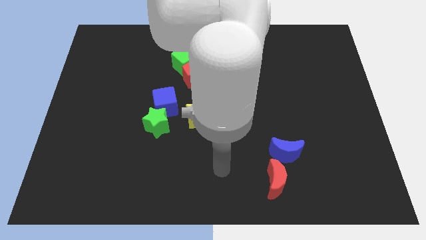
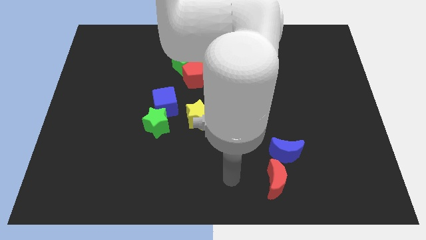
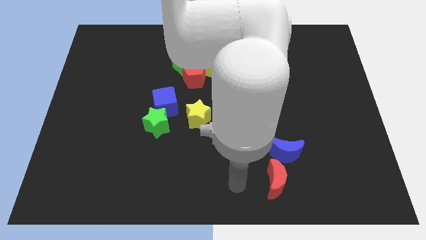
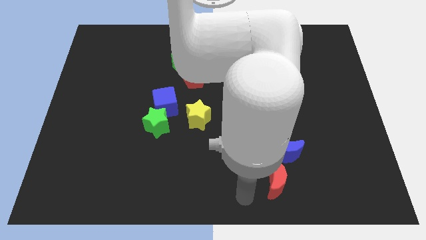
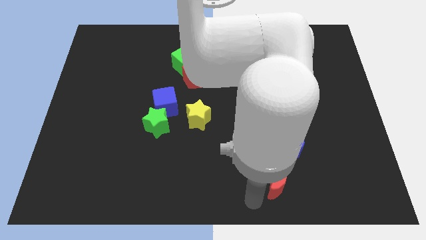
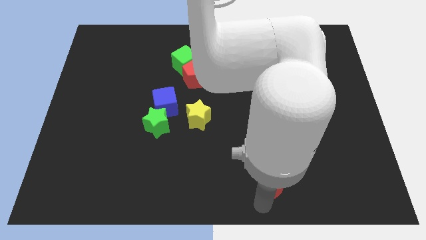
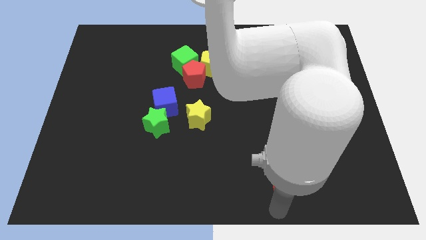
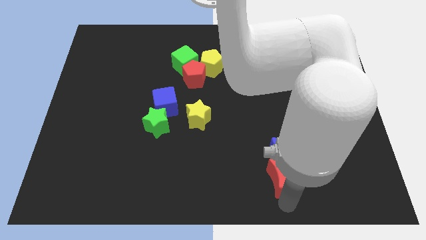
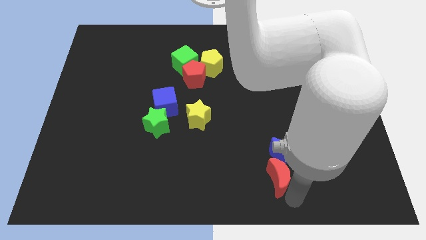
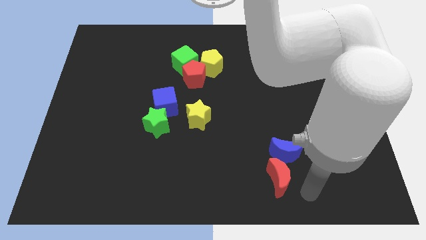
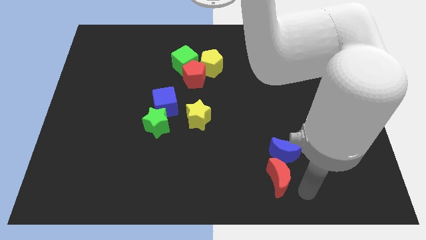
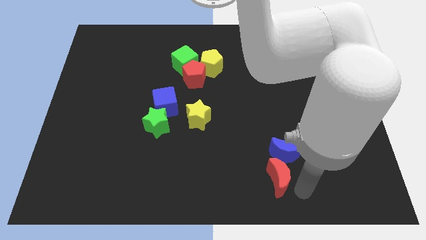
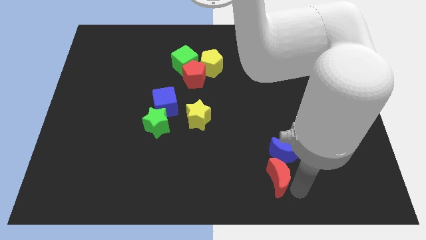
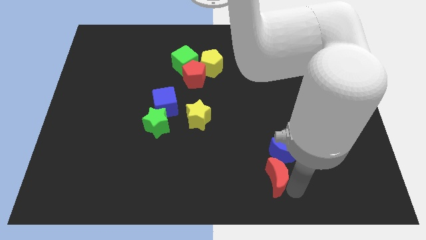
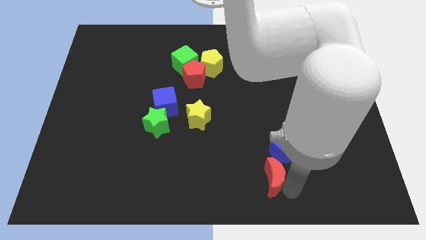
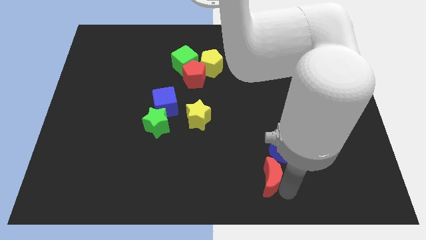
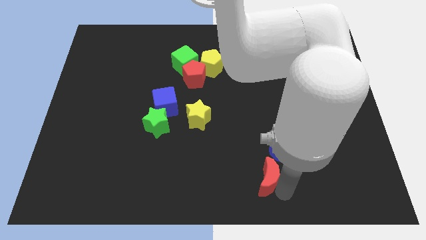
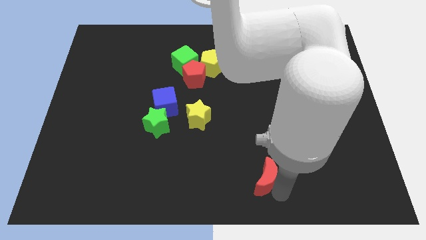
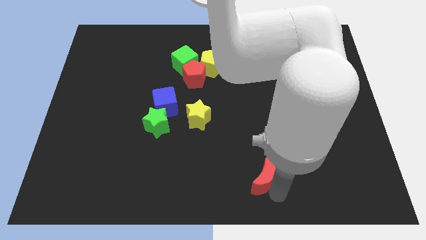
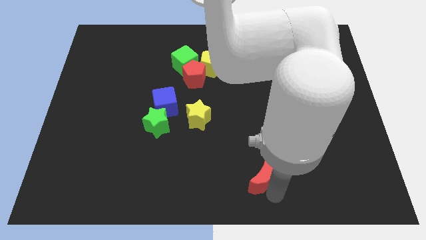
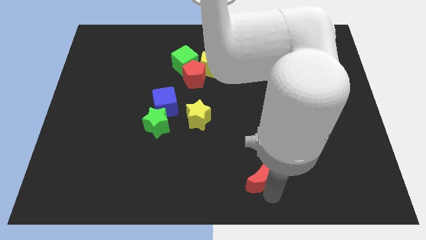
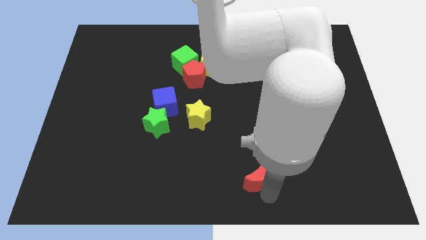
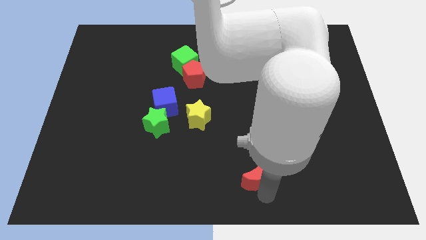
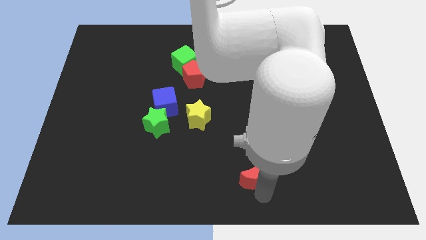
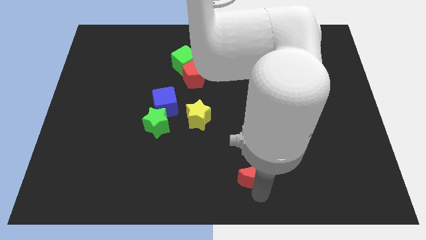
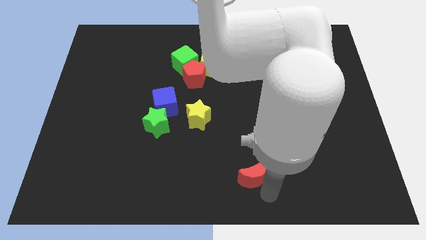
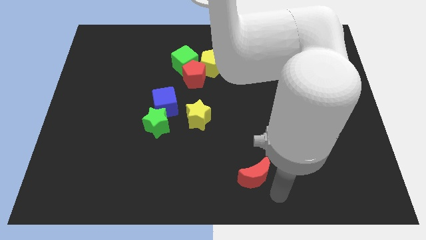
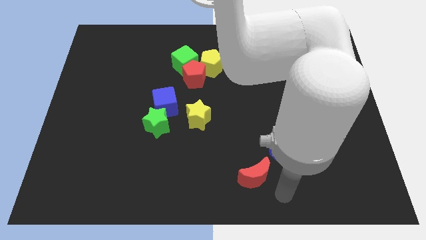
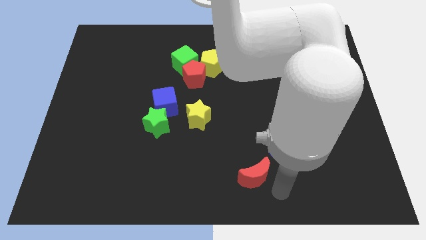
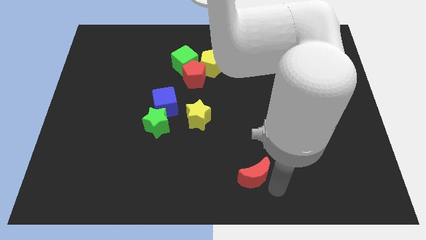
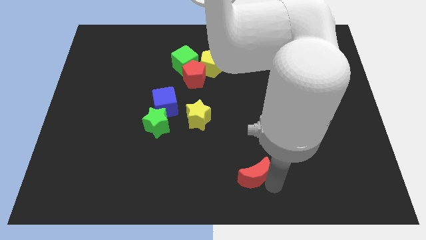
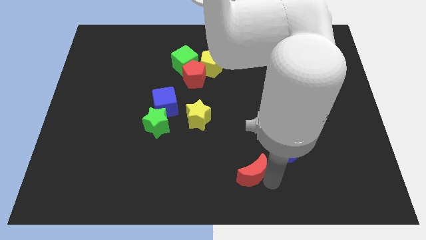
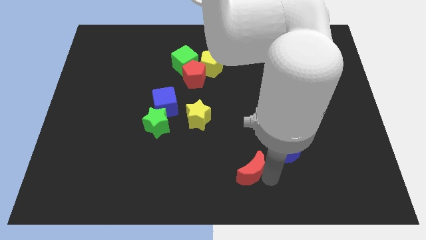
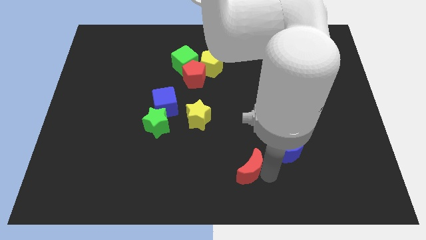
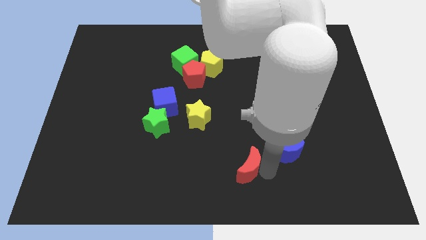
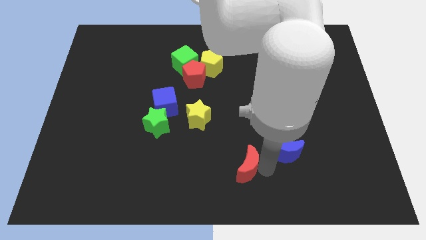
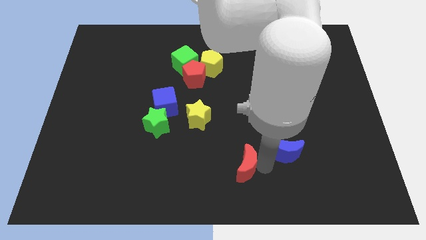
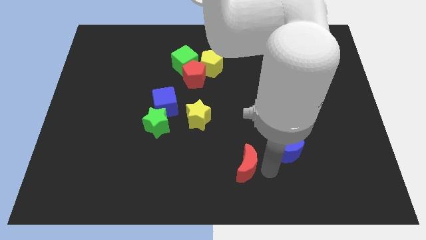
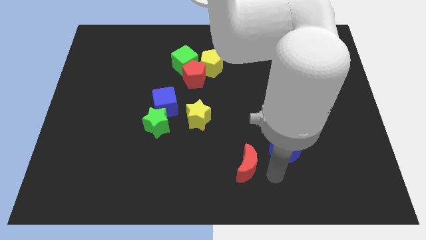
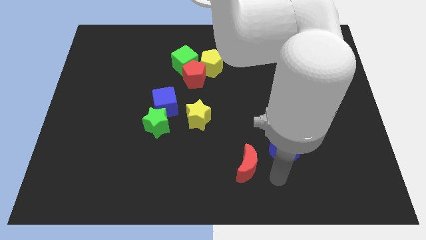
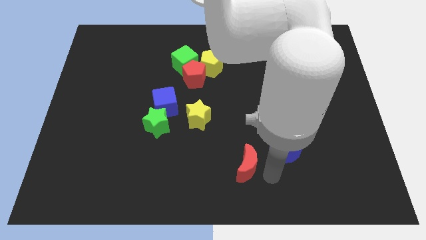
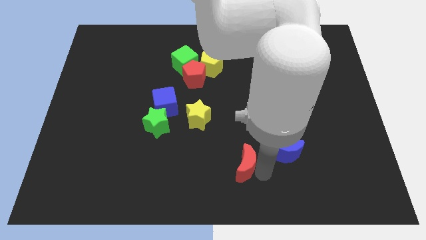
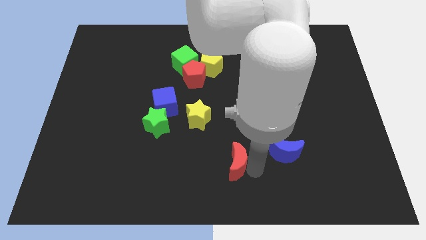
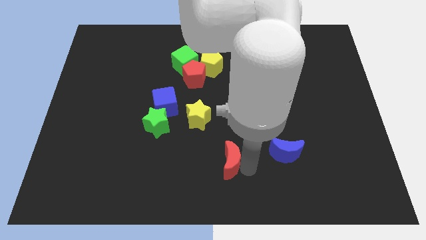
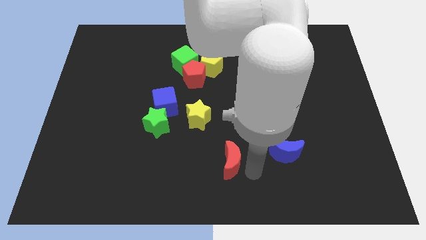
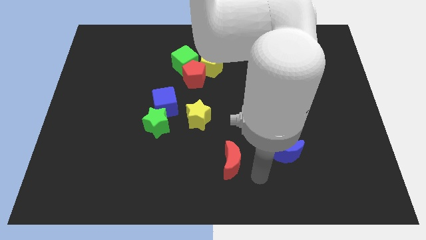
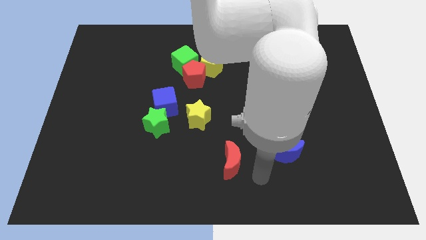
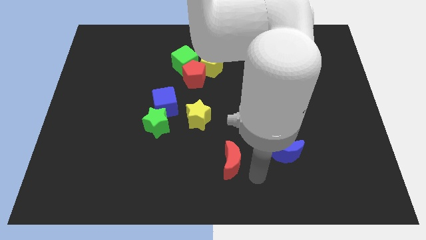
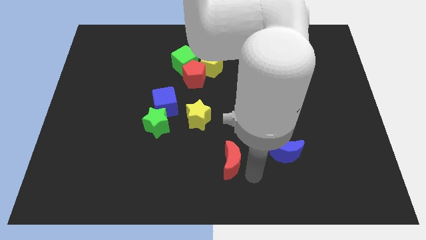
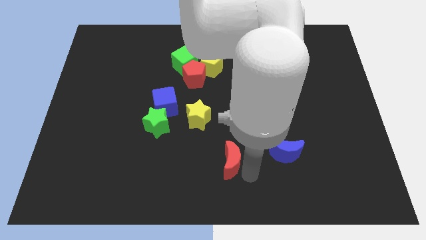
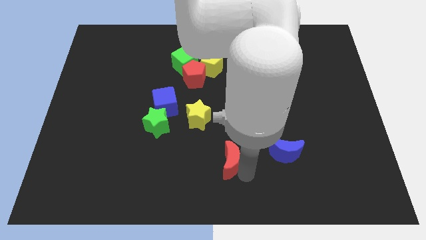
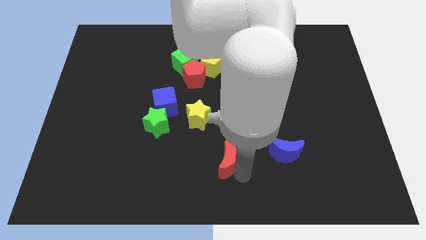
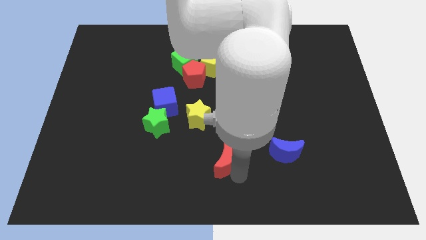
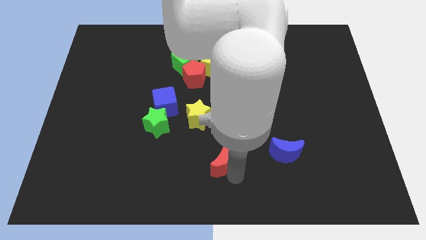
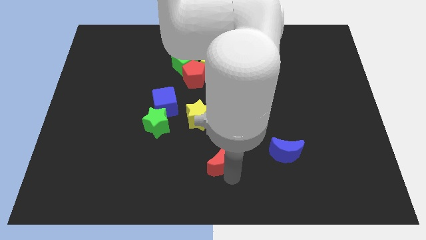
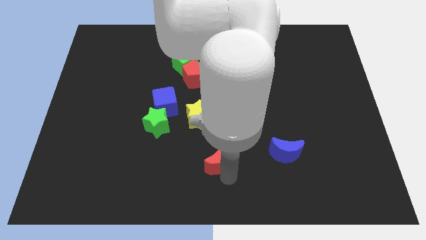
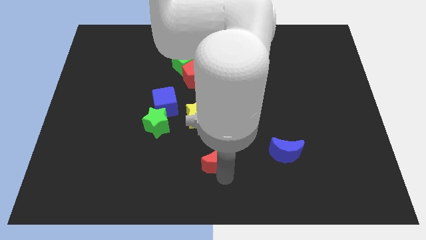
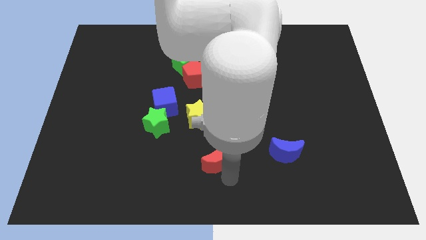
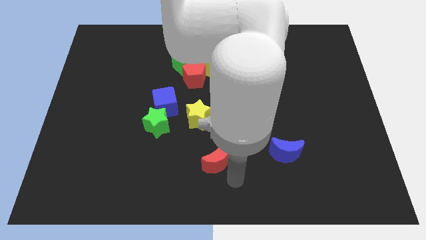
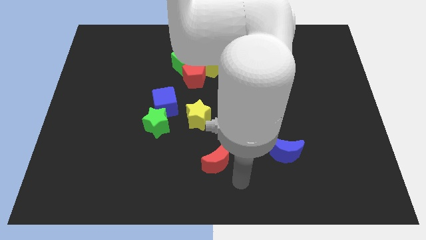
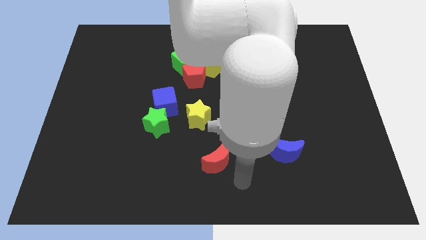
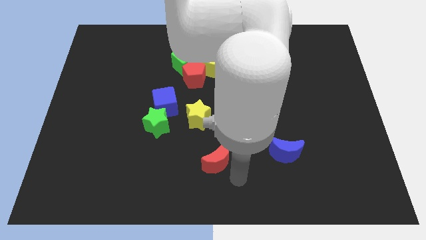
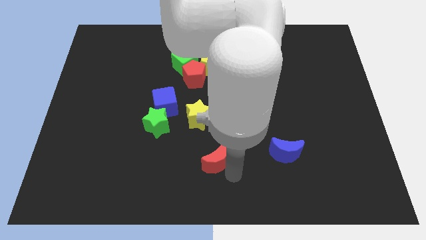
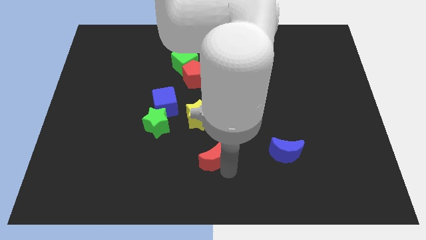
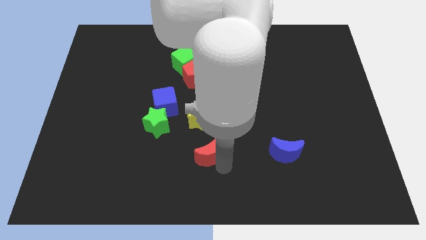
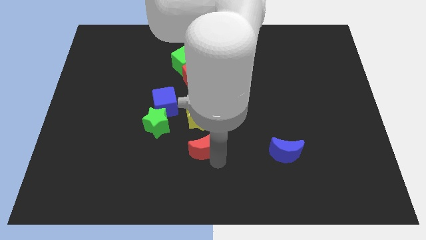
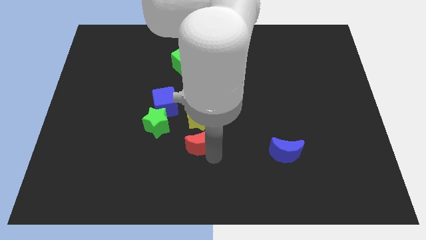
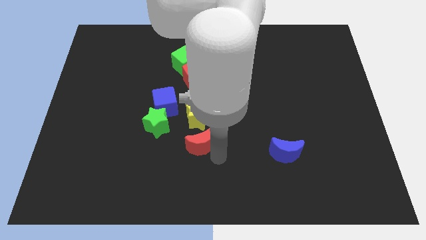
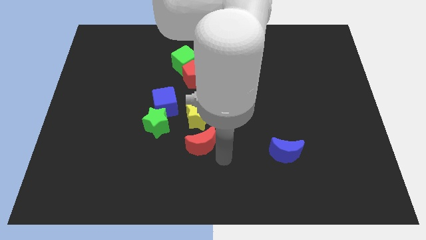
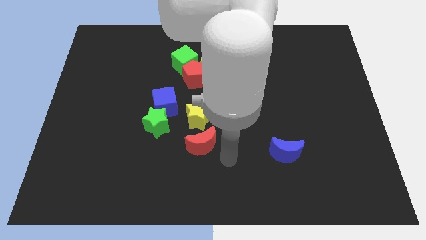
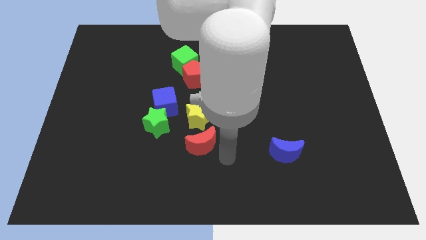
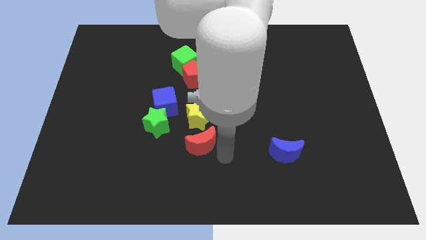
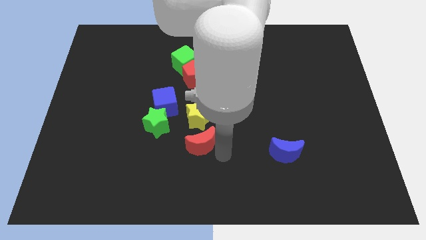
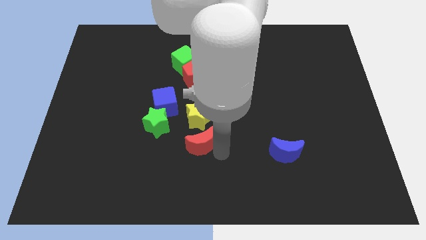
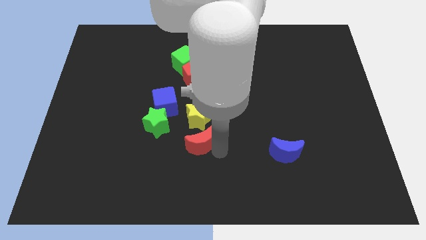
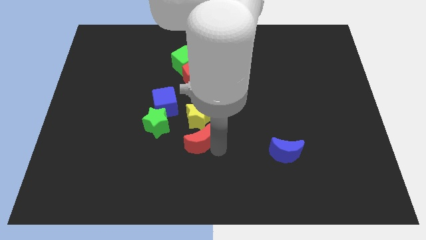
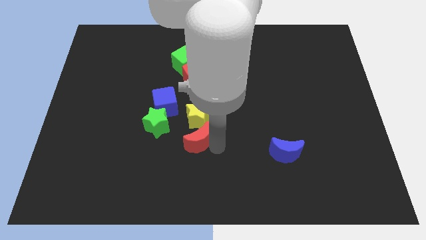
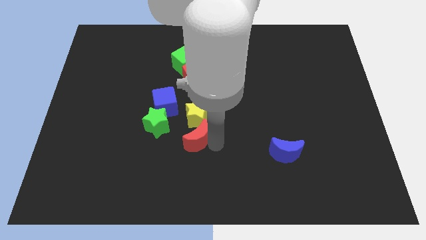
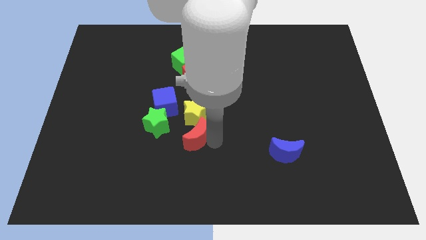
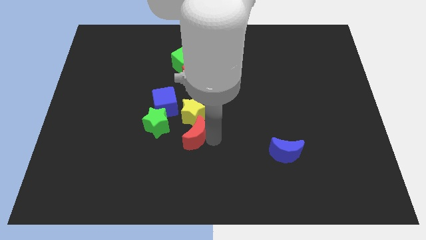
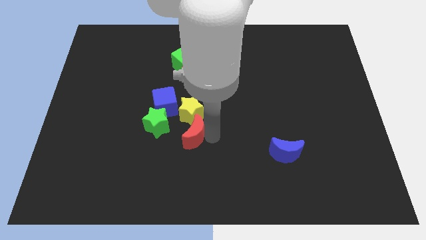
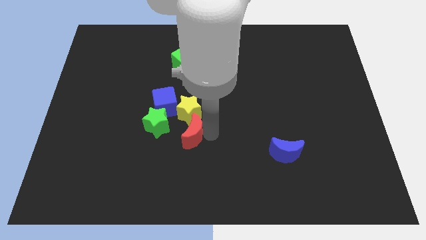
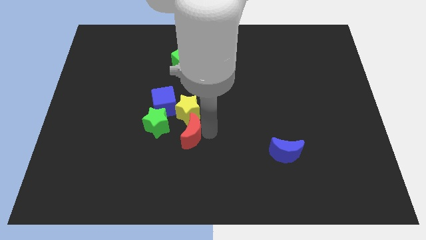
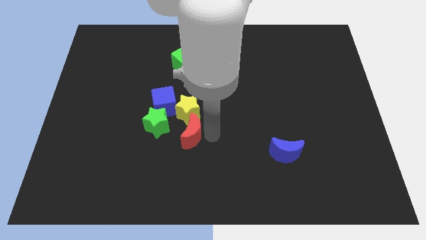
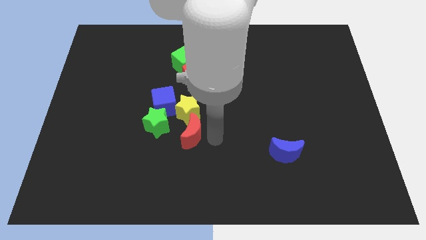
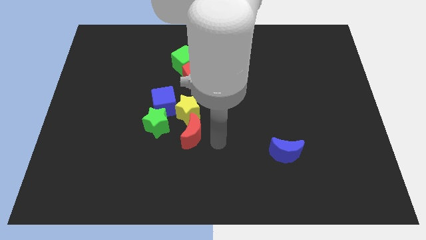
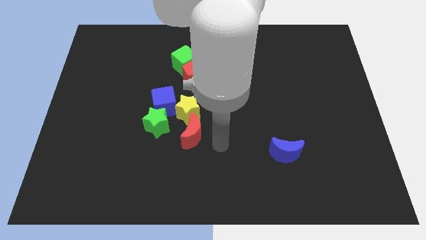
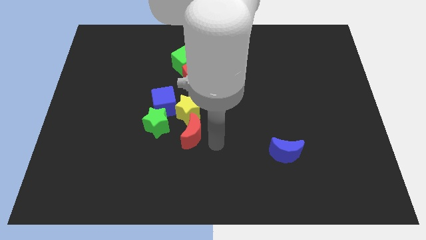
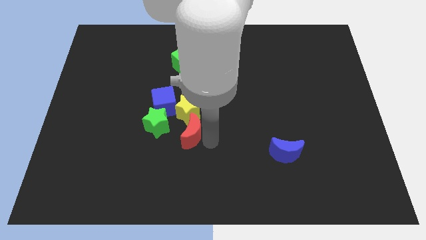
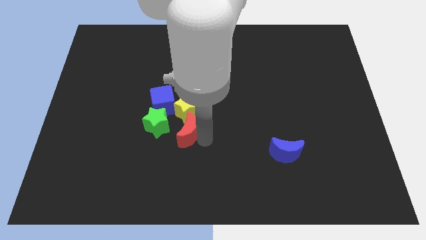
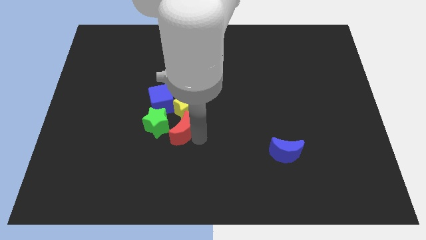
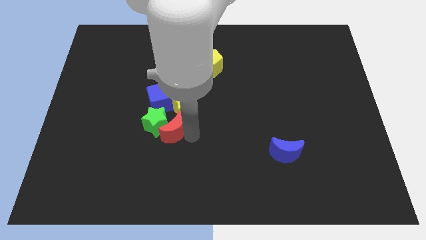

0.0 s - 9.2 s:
slide the red moon close to the green star
